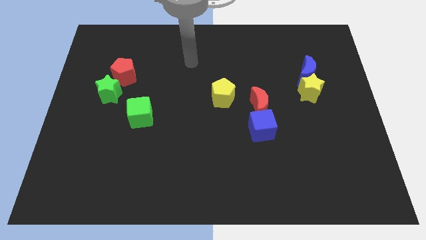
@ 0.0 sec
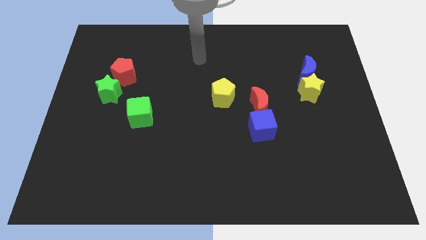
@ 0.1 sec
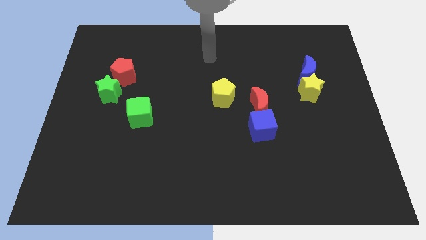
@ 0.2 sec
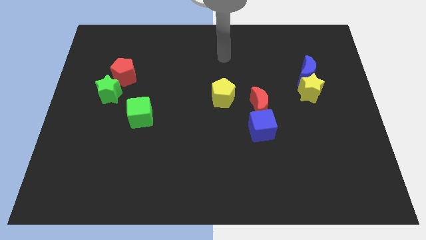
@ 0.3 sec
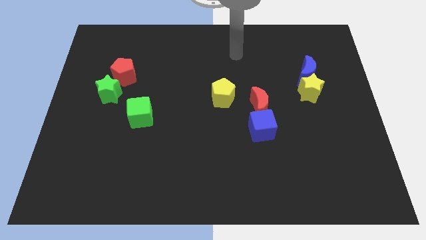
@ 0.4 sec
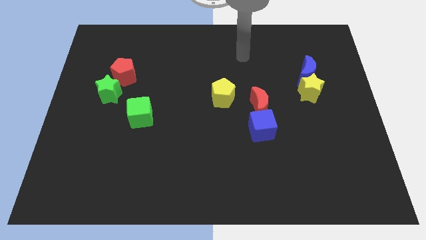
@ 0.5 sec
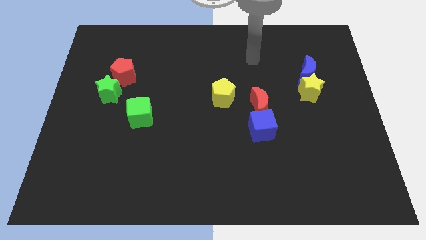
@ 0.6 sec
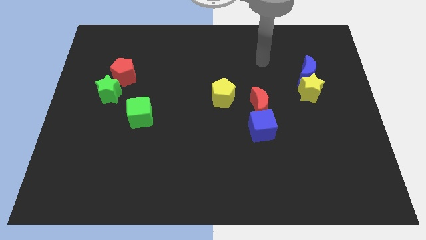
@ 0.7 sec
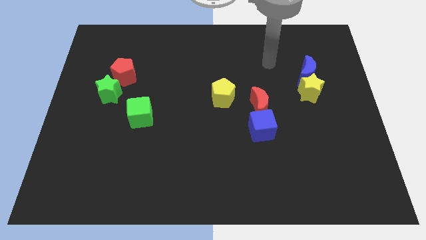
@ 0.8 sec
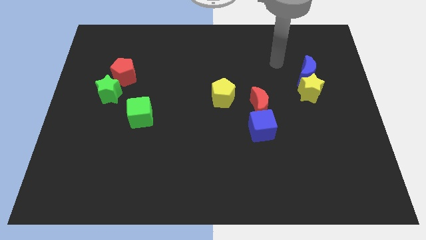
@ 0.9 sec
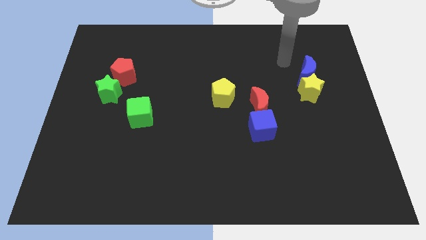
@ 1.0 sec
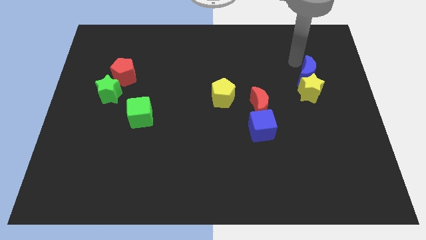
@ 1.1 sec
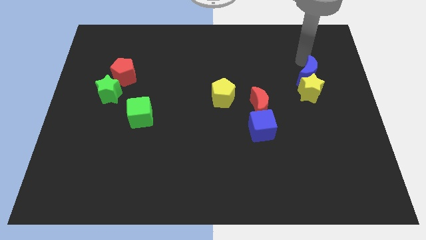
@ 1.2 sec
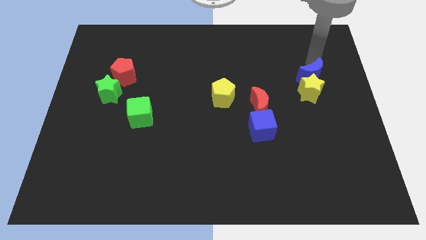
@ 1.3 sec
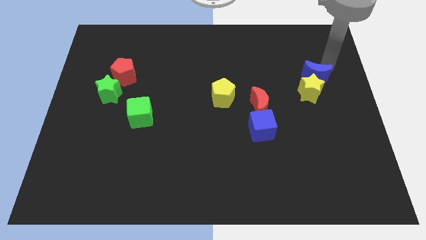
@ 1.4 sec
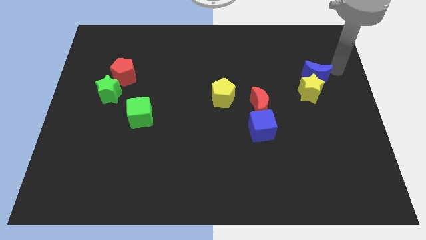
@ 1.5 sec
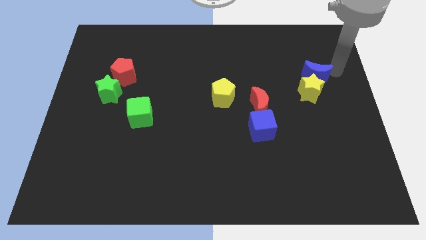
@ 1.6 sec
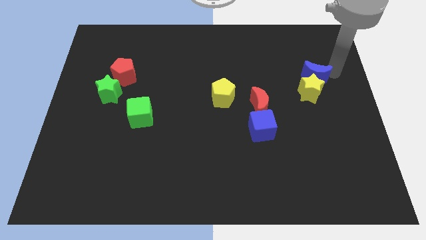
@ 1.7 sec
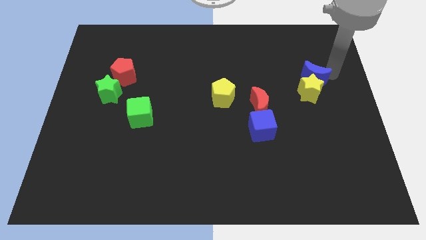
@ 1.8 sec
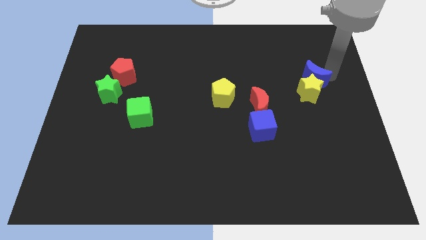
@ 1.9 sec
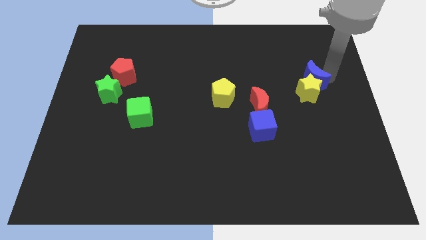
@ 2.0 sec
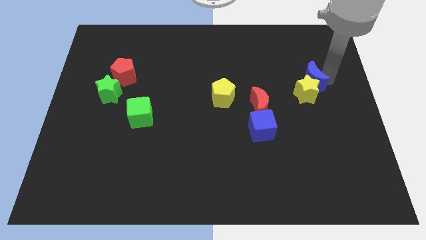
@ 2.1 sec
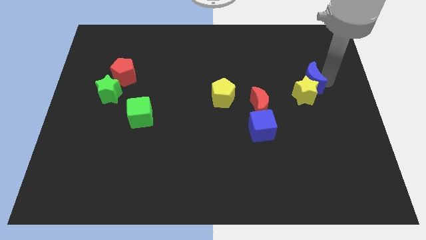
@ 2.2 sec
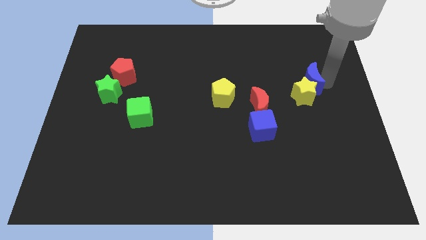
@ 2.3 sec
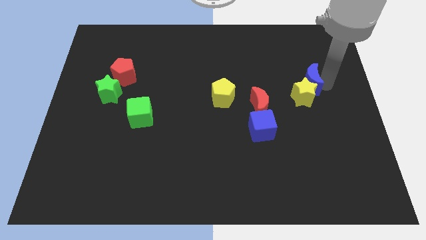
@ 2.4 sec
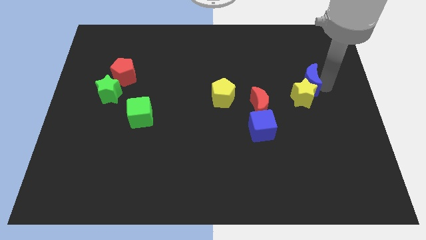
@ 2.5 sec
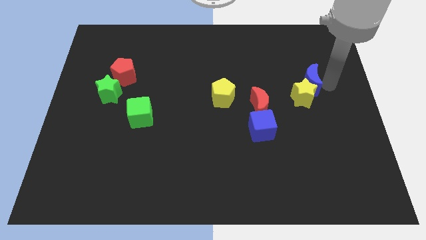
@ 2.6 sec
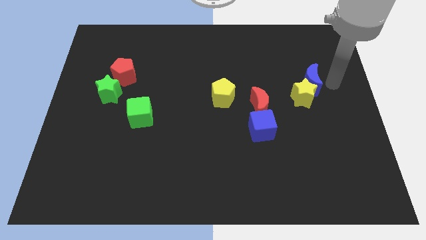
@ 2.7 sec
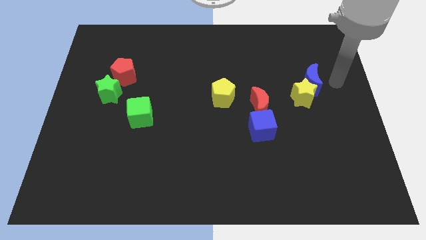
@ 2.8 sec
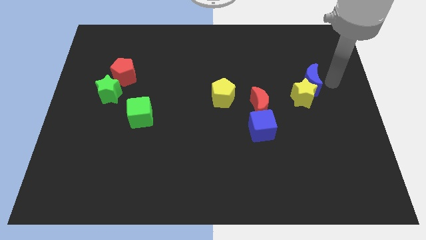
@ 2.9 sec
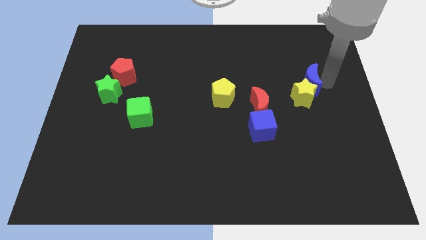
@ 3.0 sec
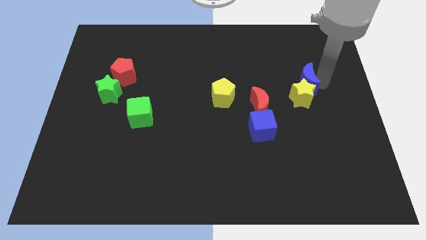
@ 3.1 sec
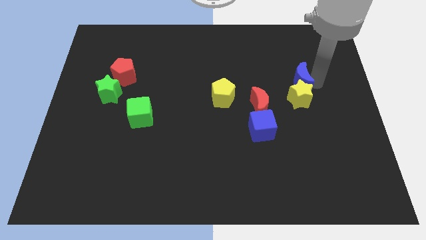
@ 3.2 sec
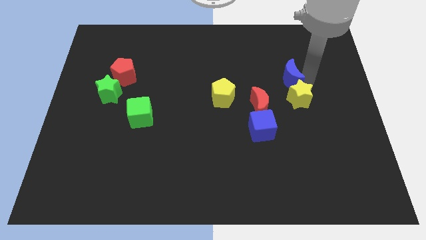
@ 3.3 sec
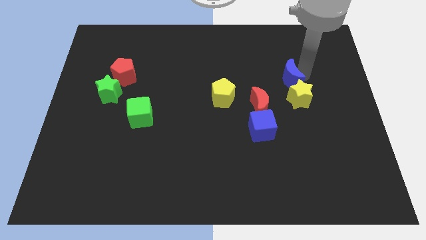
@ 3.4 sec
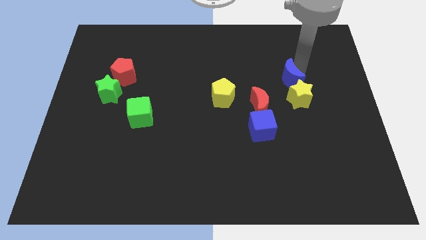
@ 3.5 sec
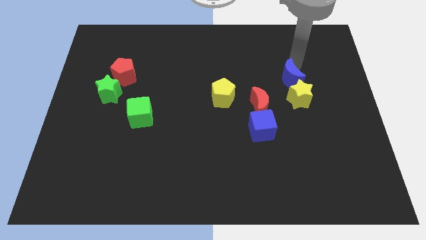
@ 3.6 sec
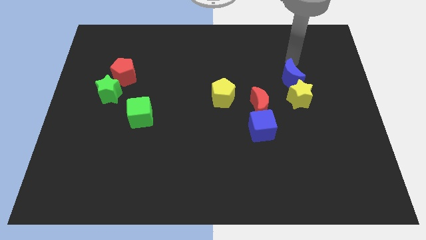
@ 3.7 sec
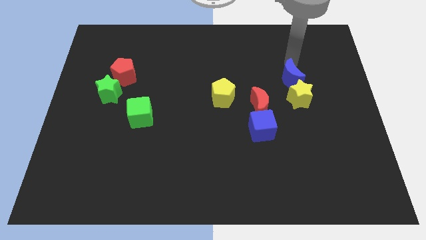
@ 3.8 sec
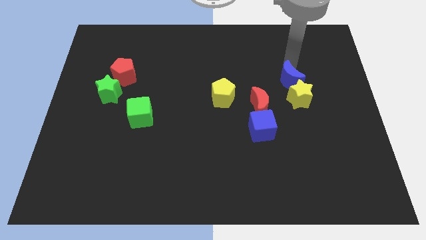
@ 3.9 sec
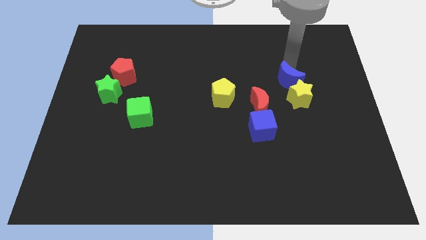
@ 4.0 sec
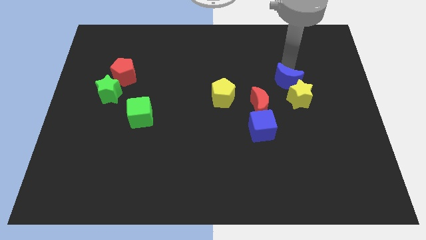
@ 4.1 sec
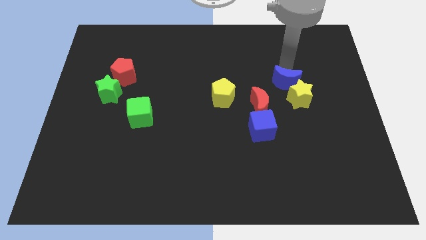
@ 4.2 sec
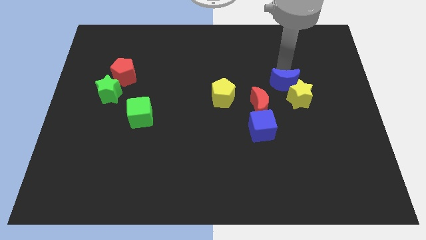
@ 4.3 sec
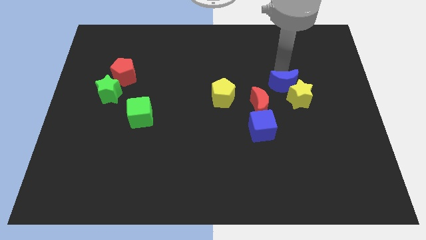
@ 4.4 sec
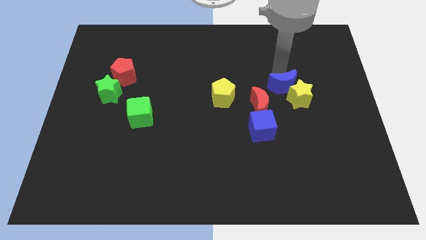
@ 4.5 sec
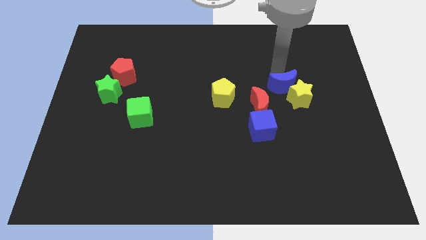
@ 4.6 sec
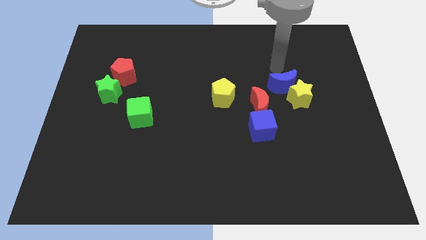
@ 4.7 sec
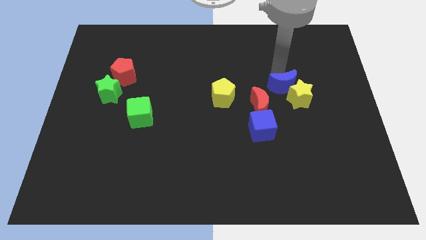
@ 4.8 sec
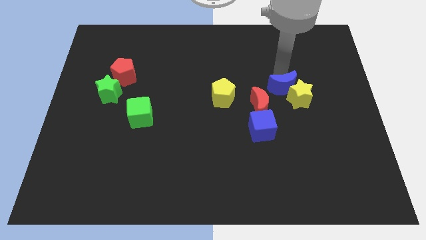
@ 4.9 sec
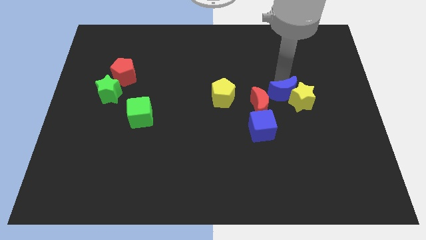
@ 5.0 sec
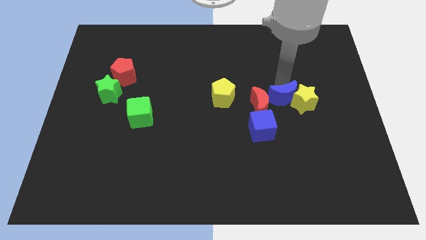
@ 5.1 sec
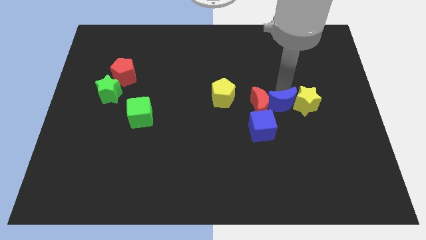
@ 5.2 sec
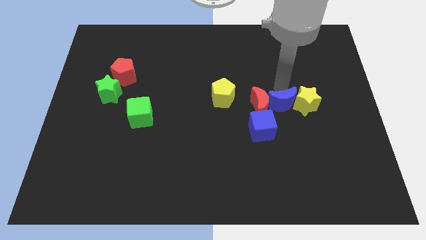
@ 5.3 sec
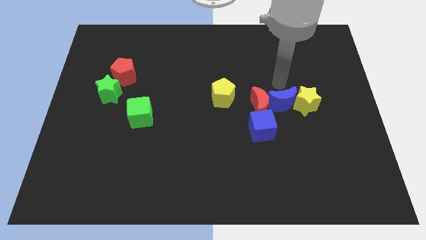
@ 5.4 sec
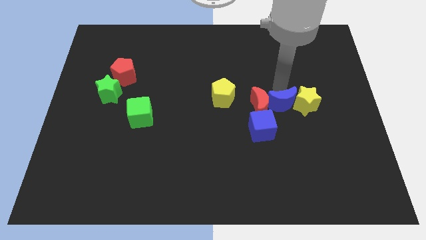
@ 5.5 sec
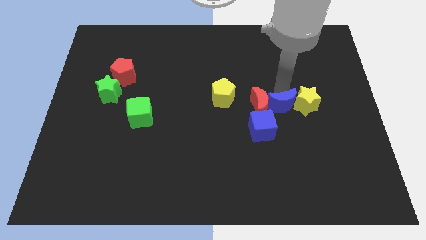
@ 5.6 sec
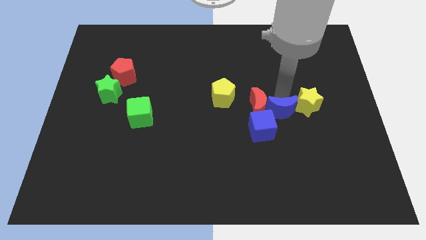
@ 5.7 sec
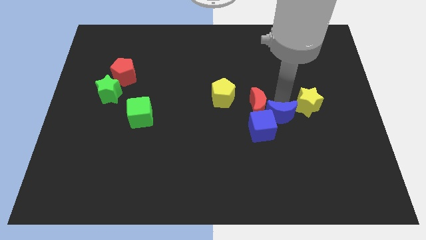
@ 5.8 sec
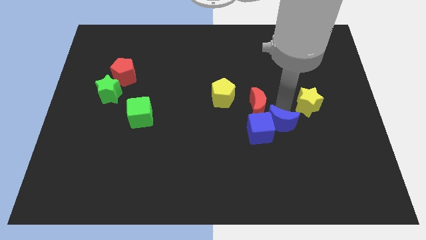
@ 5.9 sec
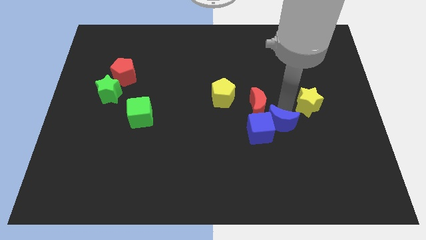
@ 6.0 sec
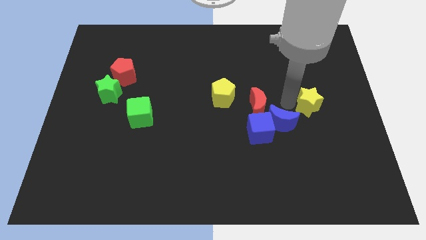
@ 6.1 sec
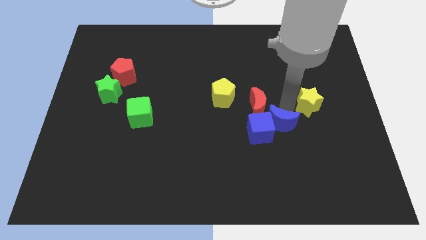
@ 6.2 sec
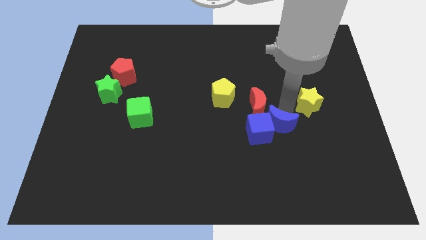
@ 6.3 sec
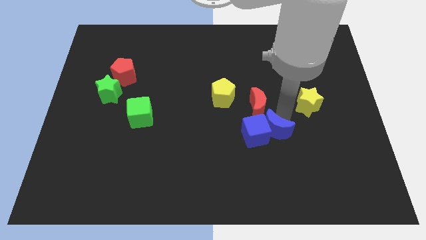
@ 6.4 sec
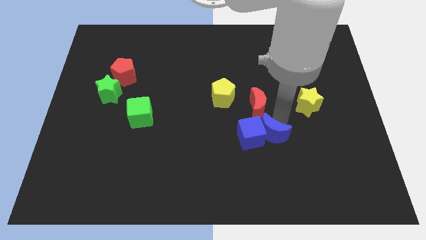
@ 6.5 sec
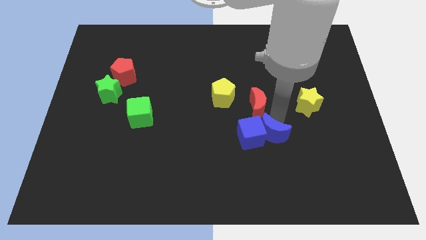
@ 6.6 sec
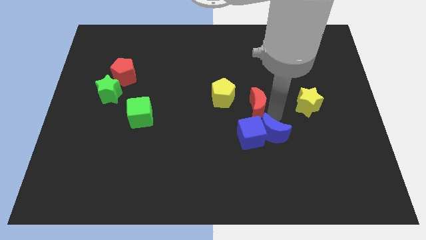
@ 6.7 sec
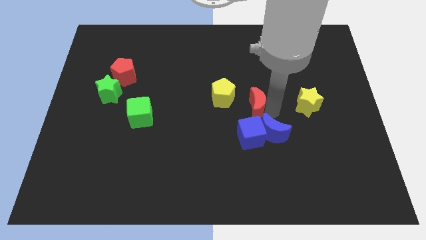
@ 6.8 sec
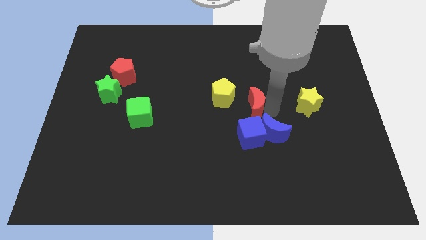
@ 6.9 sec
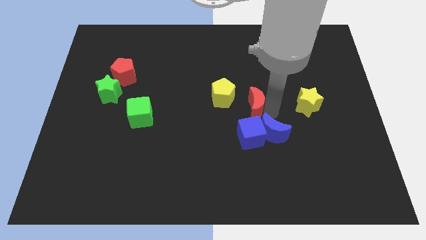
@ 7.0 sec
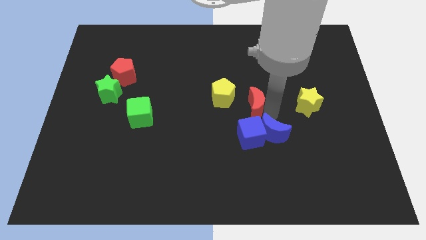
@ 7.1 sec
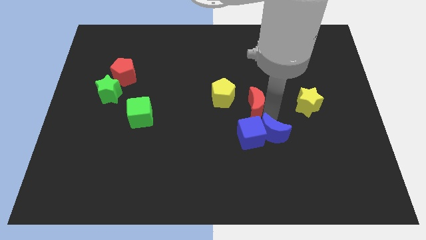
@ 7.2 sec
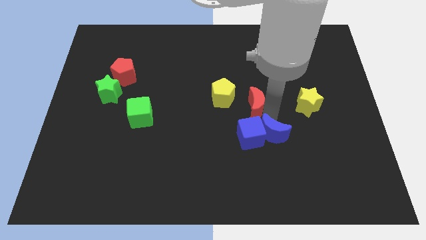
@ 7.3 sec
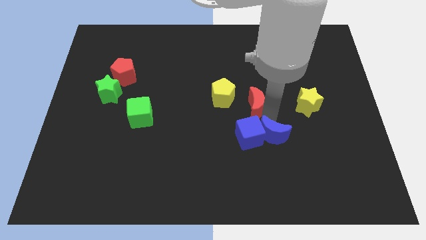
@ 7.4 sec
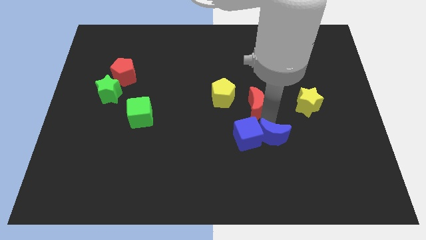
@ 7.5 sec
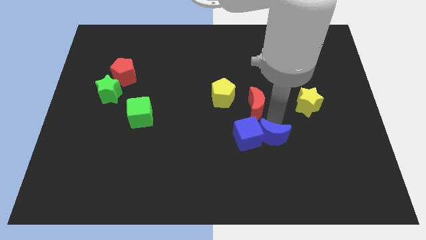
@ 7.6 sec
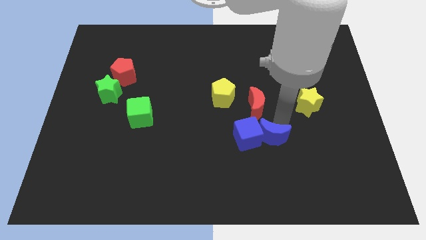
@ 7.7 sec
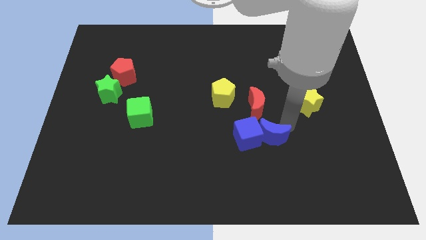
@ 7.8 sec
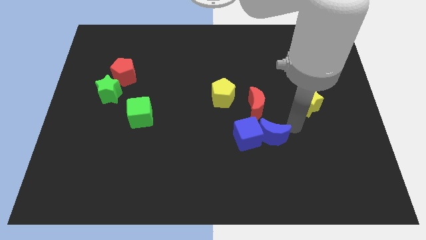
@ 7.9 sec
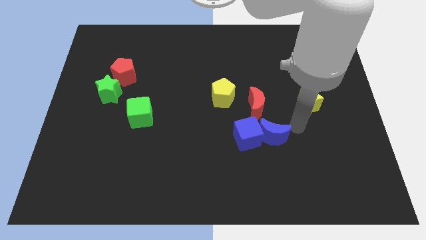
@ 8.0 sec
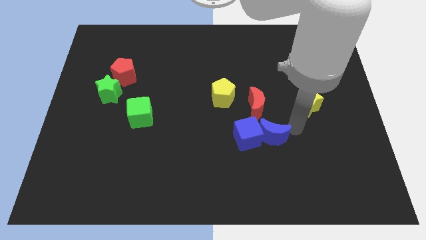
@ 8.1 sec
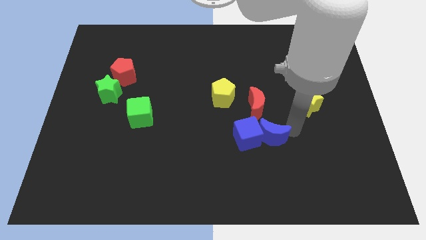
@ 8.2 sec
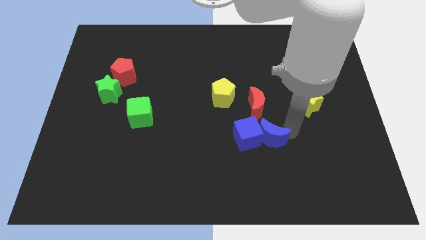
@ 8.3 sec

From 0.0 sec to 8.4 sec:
slide the blue moon downwards and to the left diagonally
